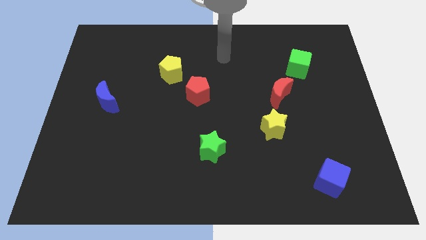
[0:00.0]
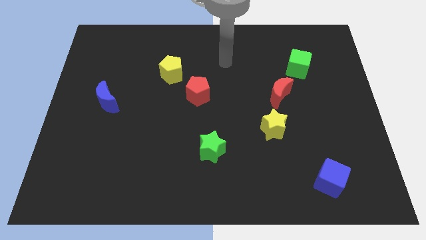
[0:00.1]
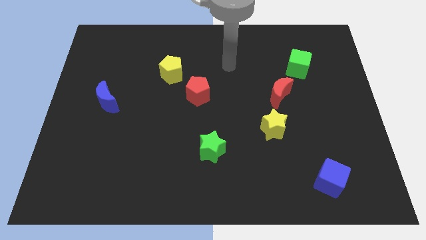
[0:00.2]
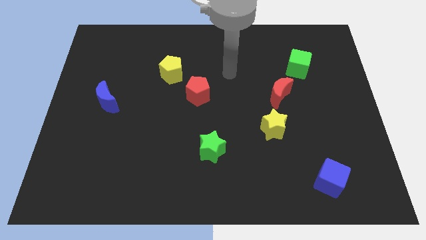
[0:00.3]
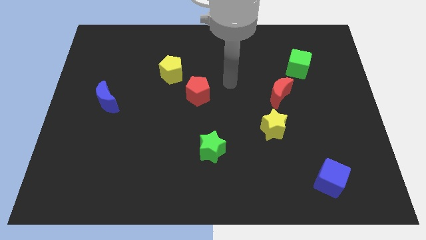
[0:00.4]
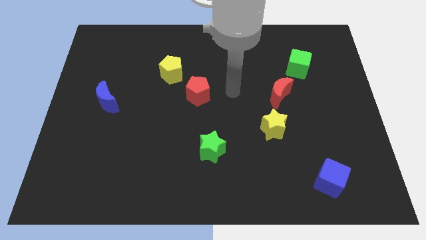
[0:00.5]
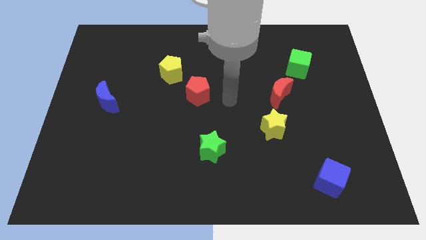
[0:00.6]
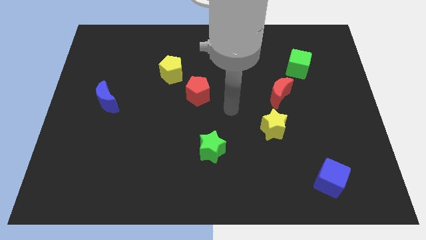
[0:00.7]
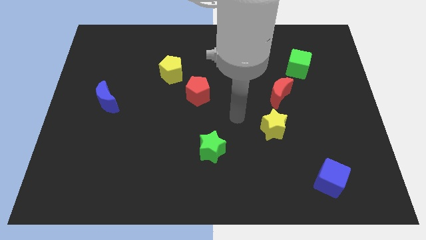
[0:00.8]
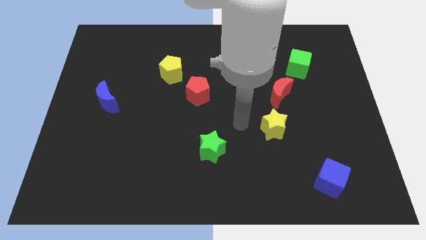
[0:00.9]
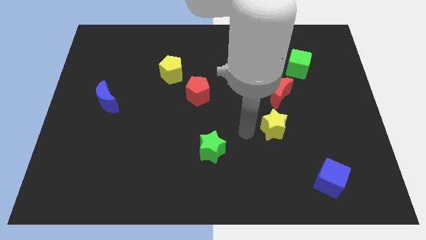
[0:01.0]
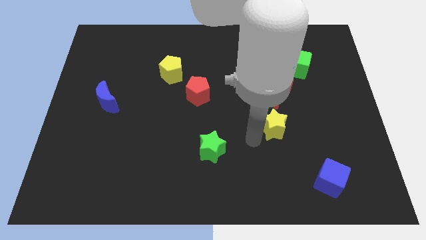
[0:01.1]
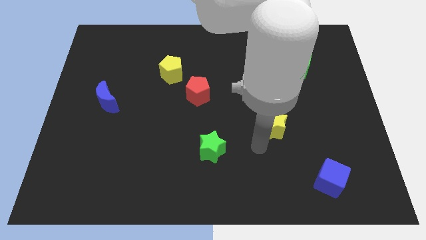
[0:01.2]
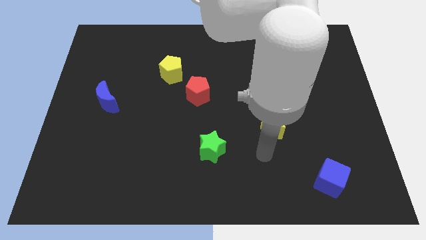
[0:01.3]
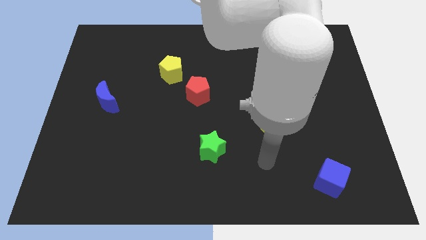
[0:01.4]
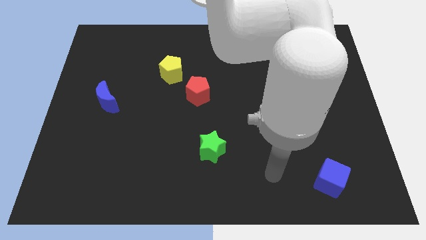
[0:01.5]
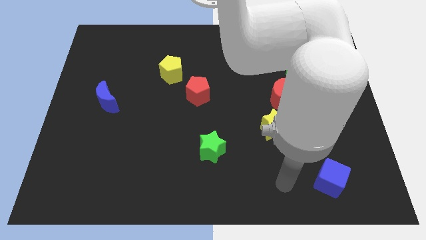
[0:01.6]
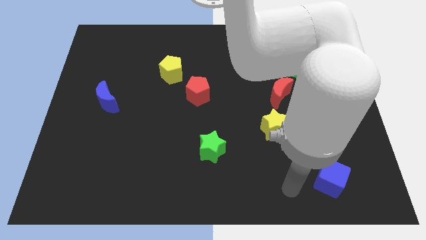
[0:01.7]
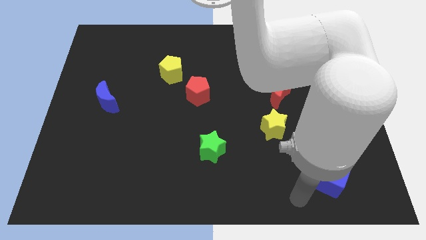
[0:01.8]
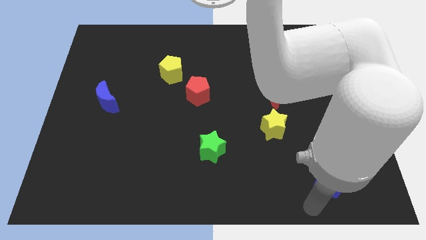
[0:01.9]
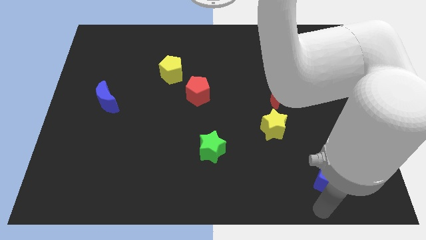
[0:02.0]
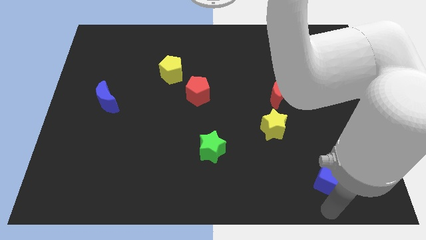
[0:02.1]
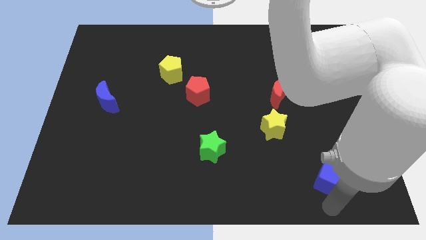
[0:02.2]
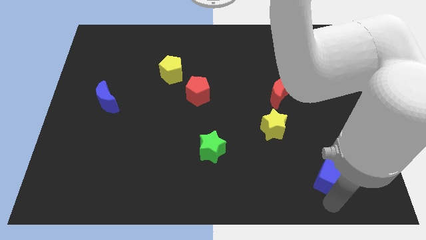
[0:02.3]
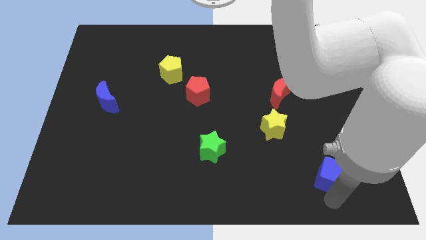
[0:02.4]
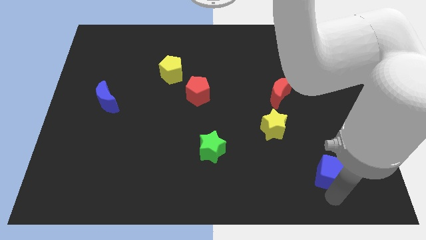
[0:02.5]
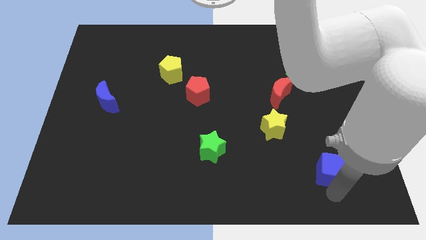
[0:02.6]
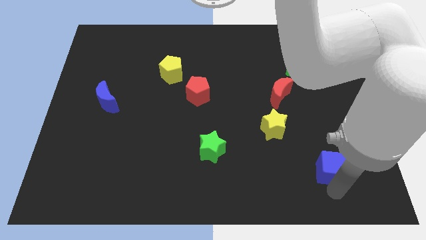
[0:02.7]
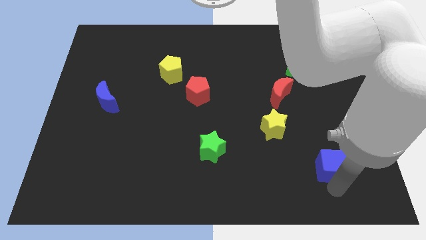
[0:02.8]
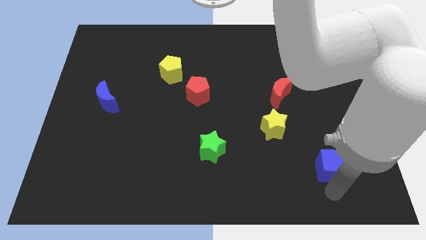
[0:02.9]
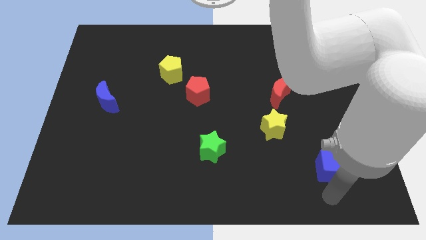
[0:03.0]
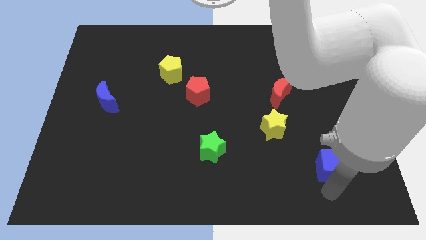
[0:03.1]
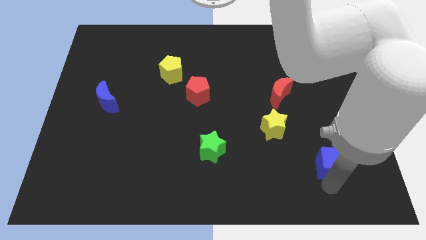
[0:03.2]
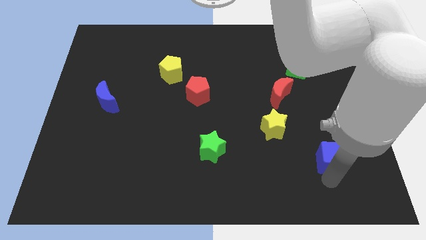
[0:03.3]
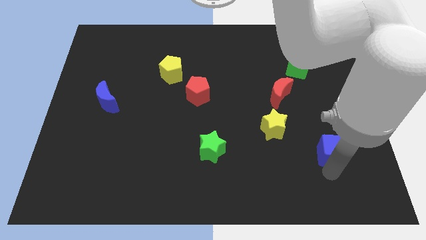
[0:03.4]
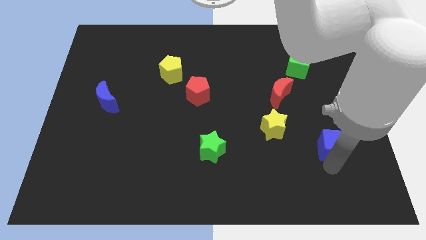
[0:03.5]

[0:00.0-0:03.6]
slide the blue cube a little bit upwards

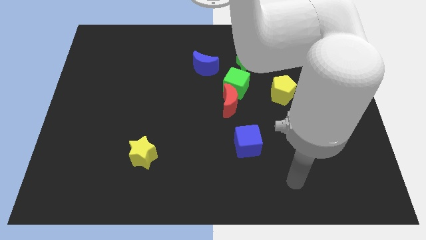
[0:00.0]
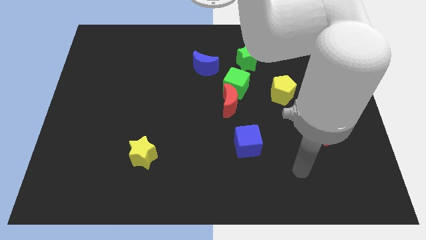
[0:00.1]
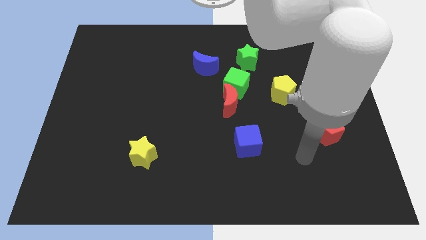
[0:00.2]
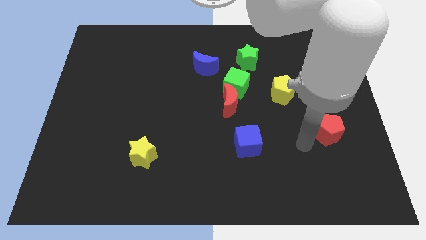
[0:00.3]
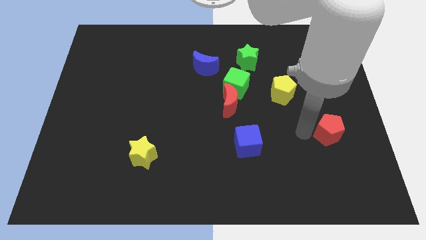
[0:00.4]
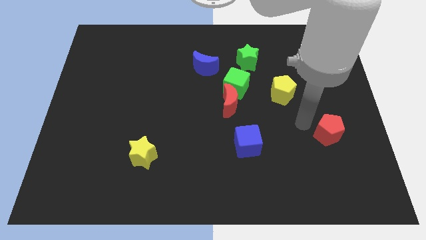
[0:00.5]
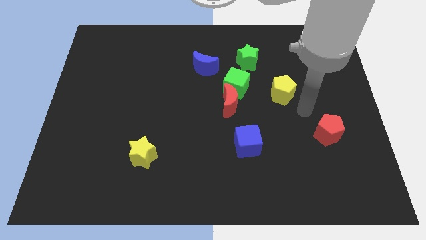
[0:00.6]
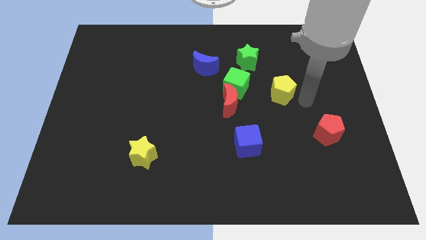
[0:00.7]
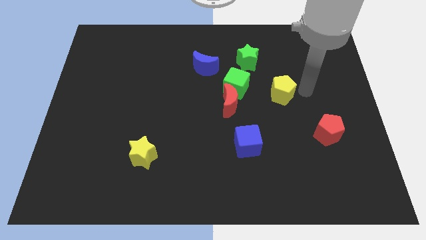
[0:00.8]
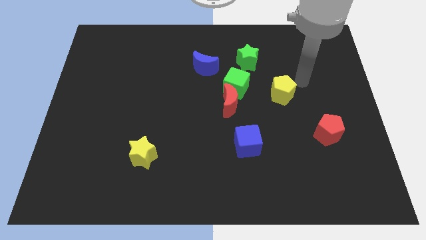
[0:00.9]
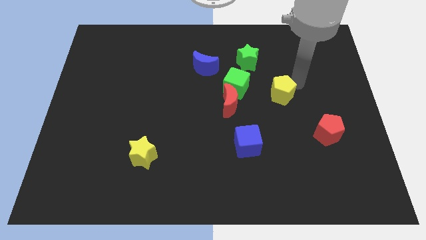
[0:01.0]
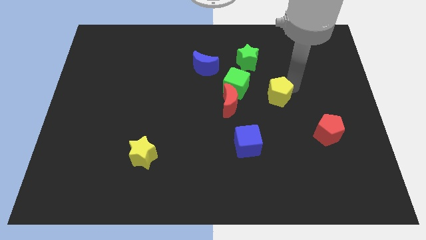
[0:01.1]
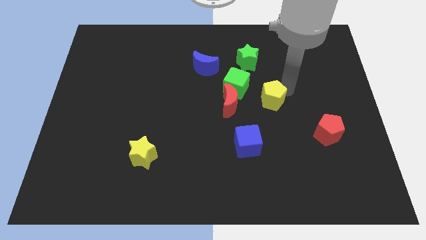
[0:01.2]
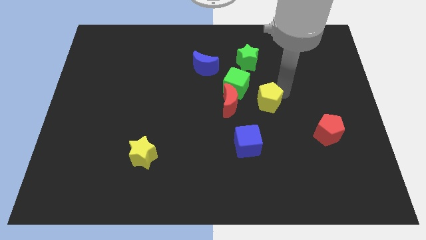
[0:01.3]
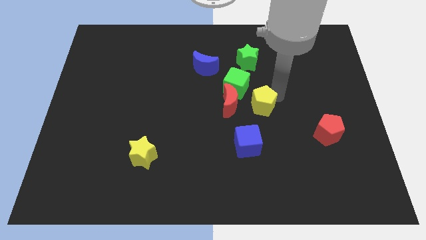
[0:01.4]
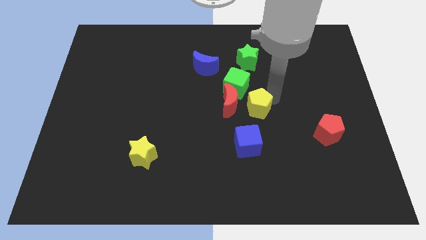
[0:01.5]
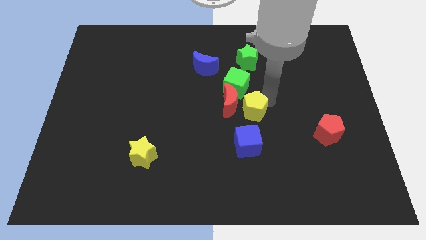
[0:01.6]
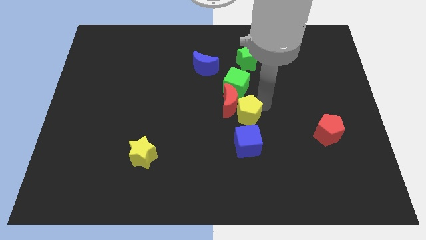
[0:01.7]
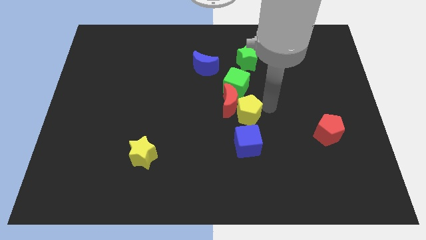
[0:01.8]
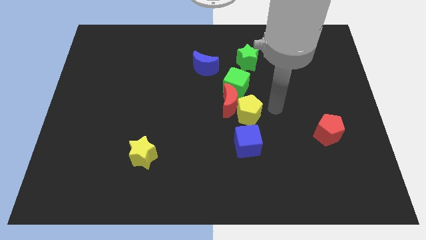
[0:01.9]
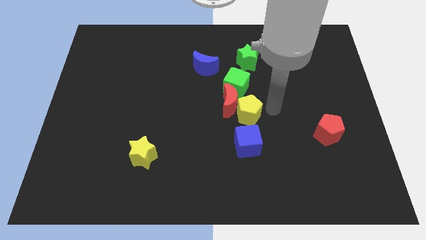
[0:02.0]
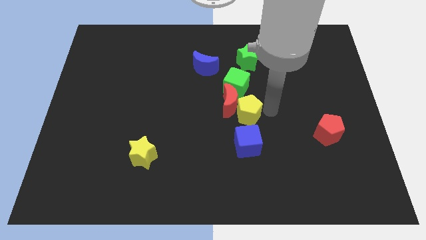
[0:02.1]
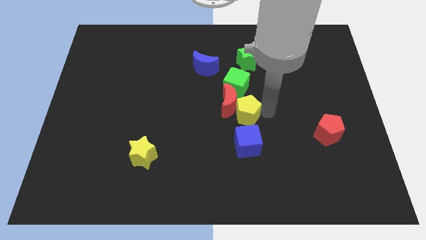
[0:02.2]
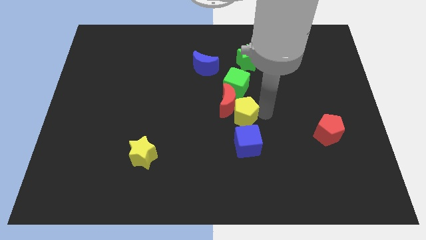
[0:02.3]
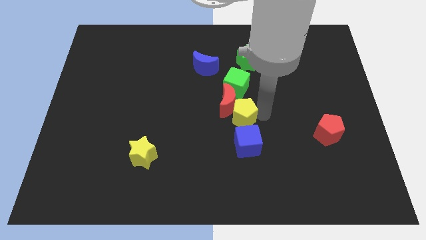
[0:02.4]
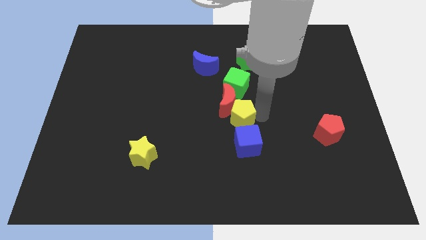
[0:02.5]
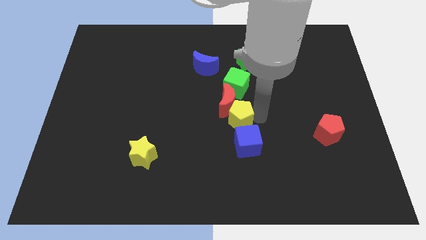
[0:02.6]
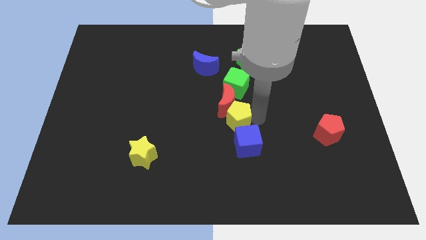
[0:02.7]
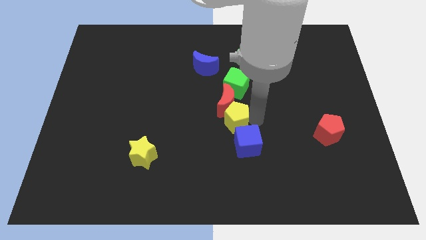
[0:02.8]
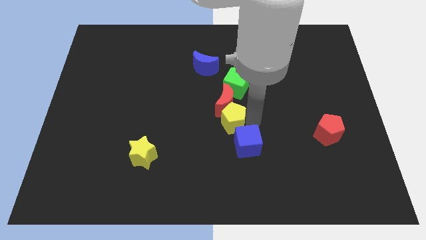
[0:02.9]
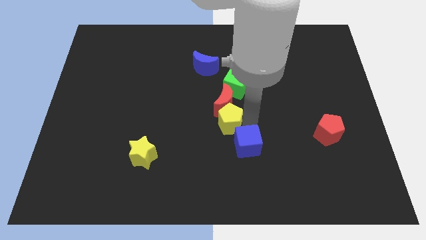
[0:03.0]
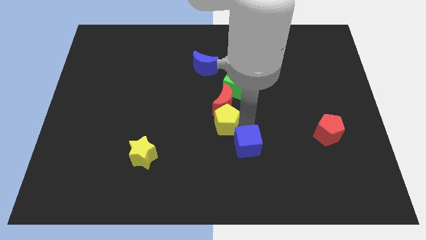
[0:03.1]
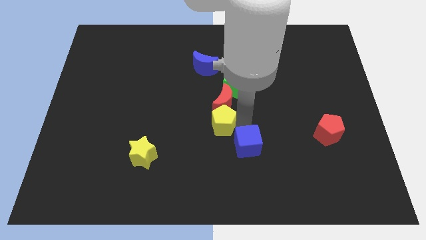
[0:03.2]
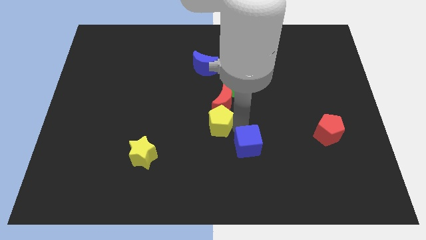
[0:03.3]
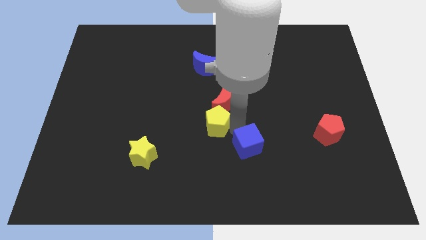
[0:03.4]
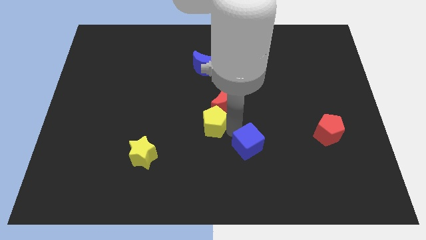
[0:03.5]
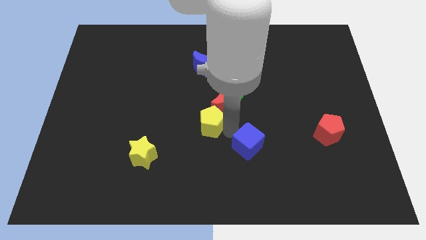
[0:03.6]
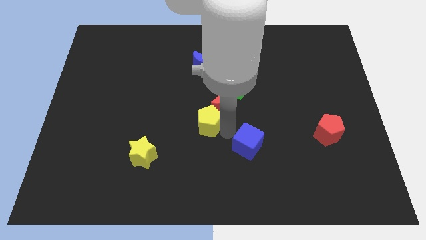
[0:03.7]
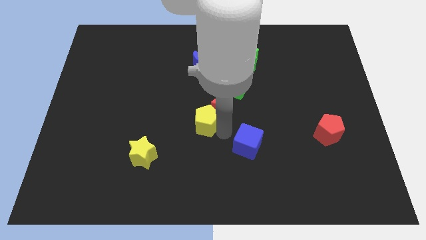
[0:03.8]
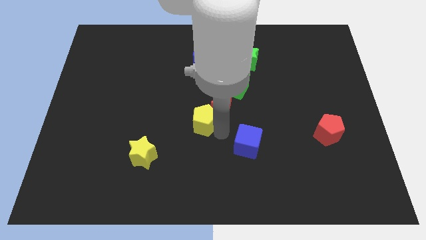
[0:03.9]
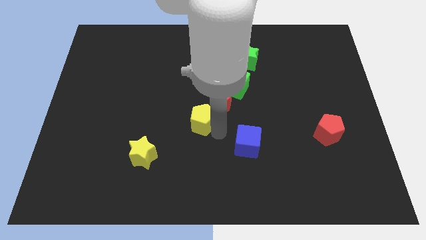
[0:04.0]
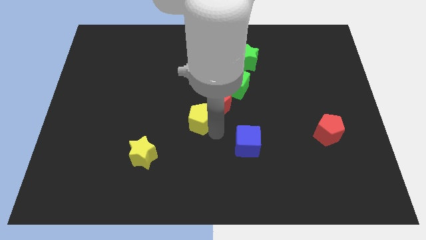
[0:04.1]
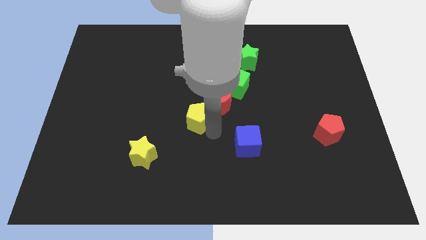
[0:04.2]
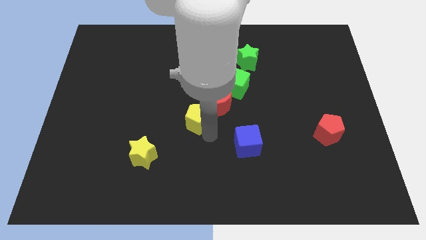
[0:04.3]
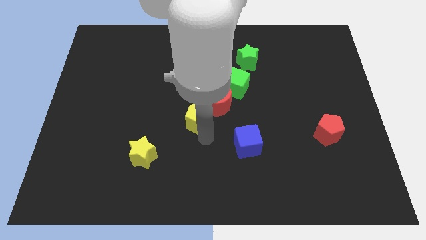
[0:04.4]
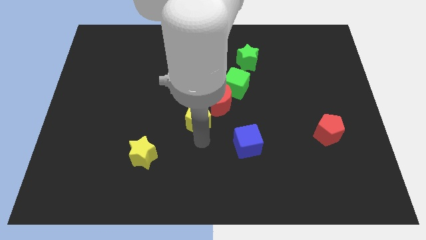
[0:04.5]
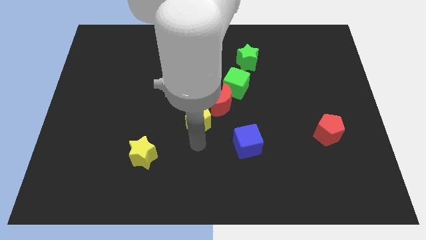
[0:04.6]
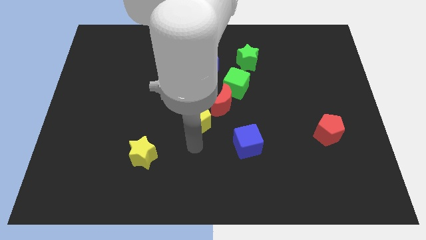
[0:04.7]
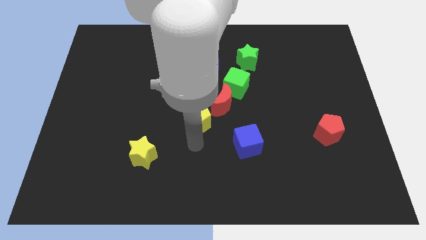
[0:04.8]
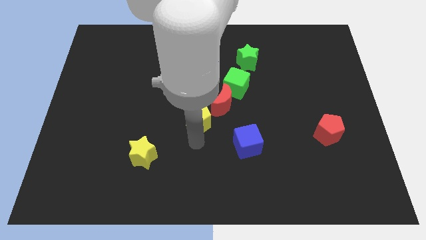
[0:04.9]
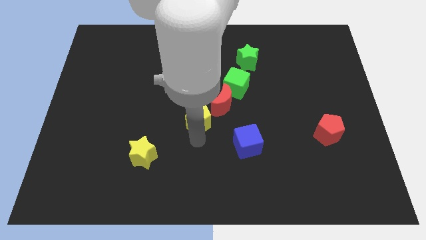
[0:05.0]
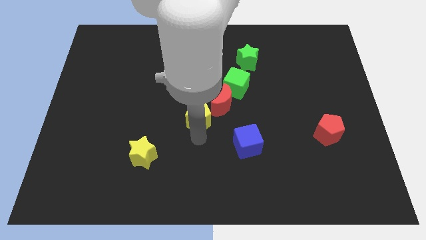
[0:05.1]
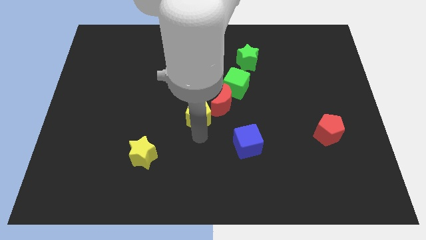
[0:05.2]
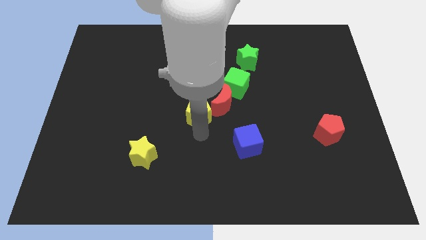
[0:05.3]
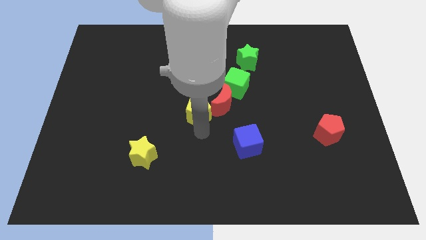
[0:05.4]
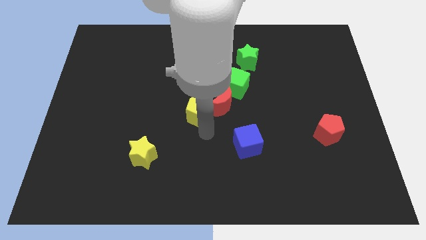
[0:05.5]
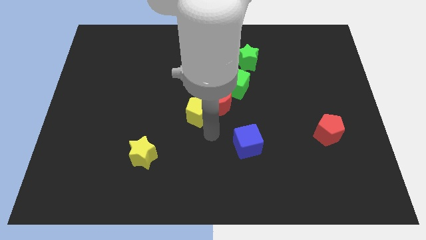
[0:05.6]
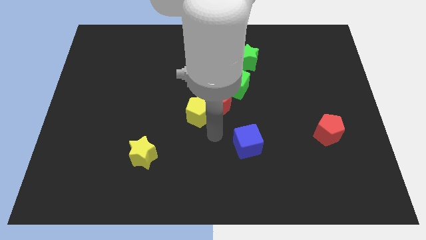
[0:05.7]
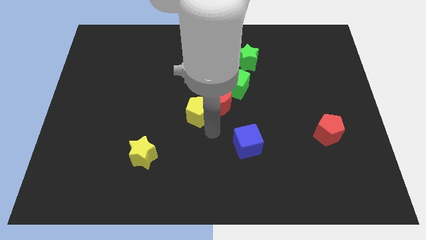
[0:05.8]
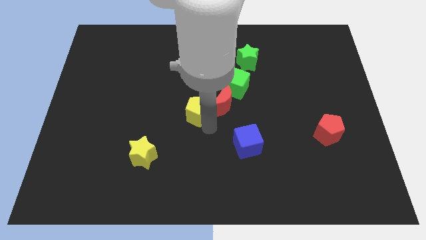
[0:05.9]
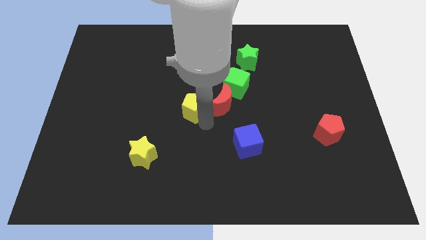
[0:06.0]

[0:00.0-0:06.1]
push the yellow pentagon to the left
